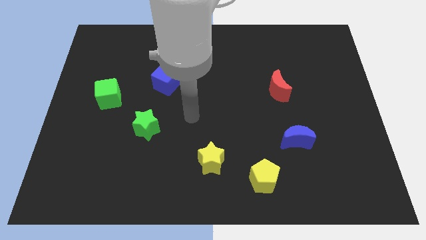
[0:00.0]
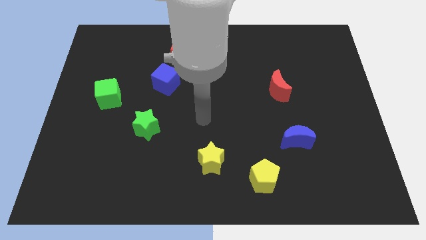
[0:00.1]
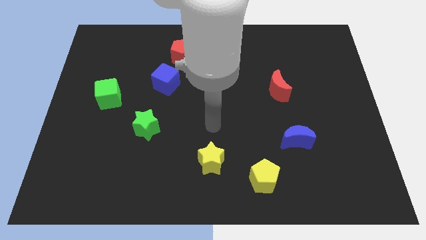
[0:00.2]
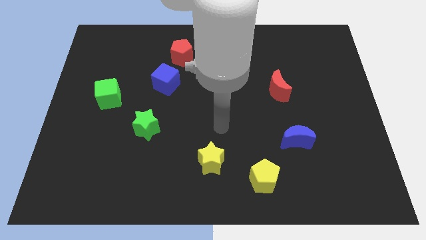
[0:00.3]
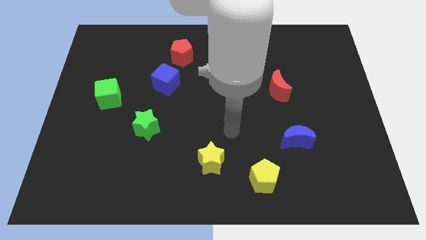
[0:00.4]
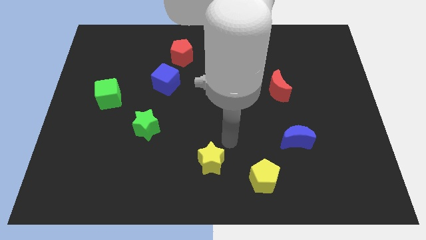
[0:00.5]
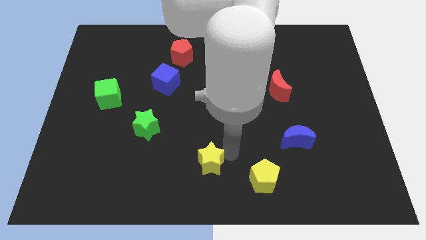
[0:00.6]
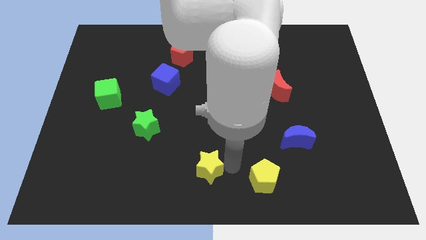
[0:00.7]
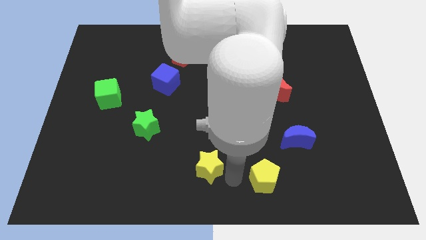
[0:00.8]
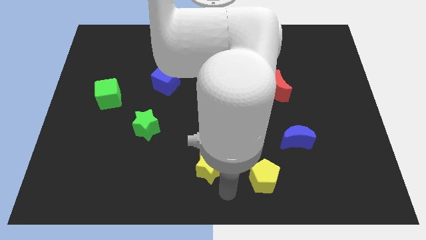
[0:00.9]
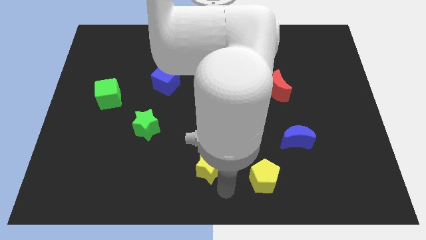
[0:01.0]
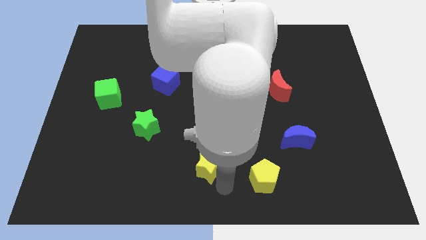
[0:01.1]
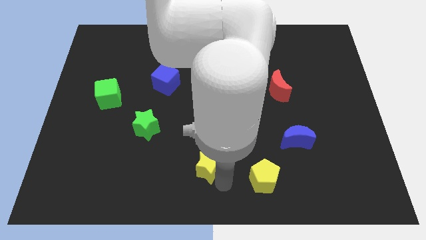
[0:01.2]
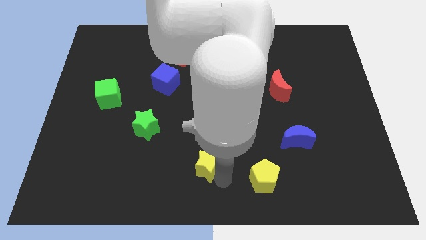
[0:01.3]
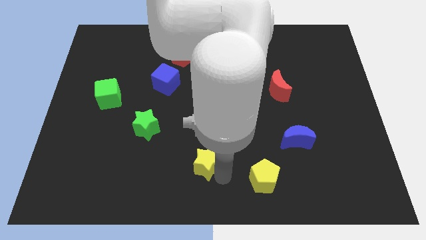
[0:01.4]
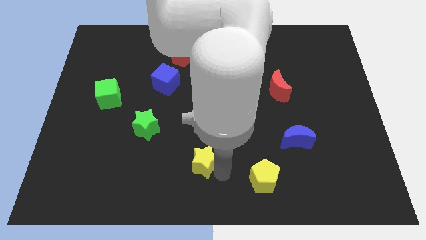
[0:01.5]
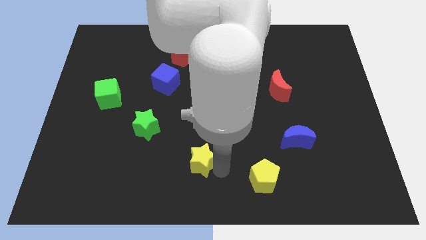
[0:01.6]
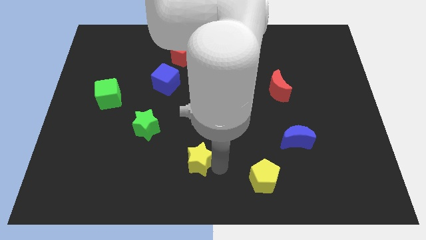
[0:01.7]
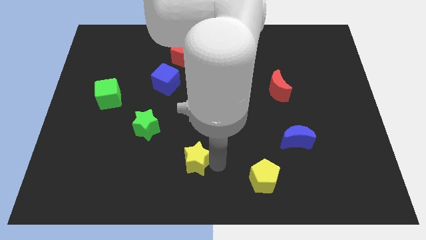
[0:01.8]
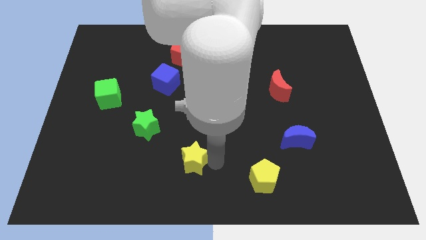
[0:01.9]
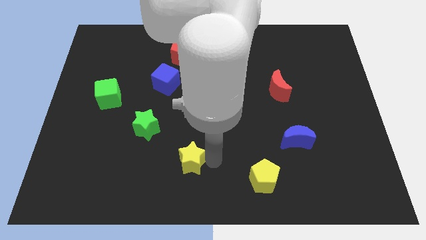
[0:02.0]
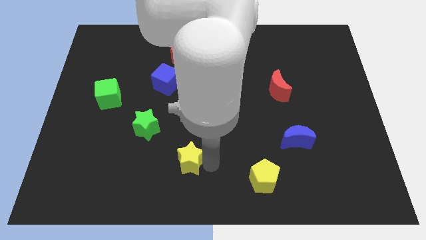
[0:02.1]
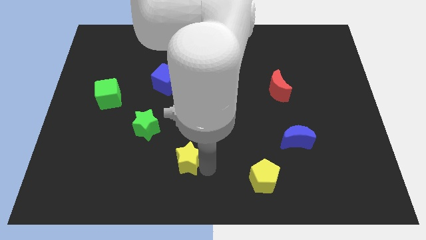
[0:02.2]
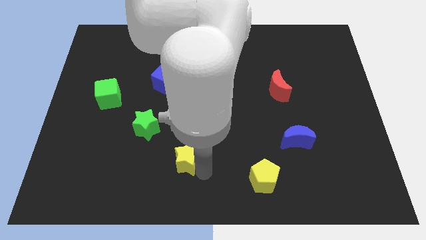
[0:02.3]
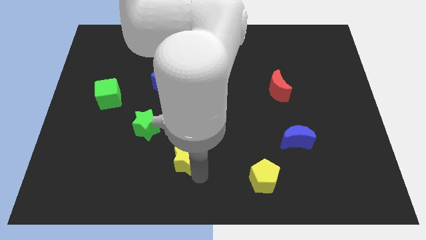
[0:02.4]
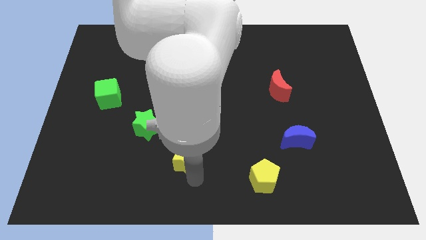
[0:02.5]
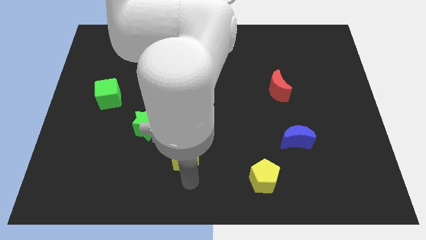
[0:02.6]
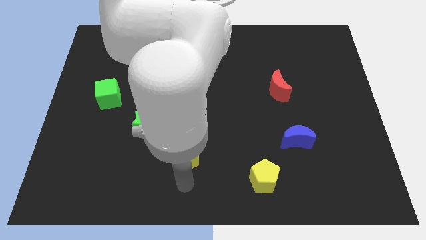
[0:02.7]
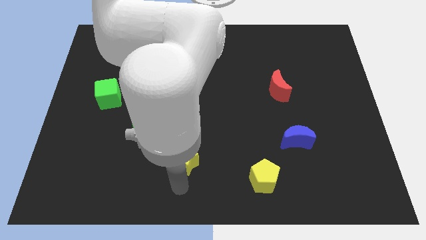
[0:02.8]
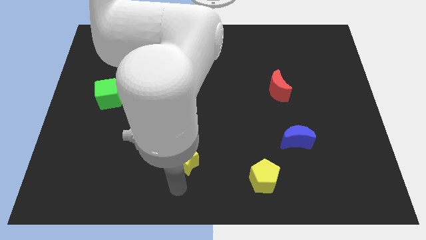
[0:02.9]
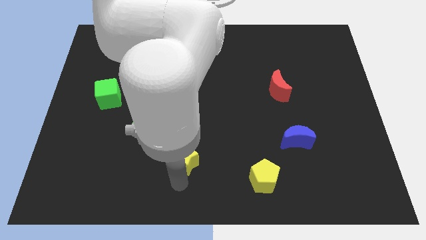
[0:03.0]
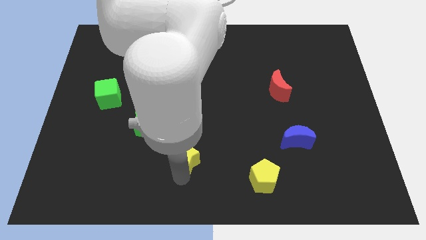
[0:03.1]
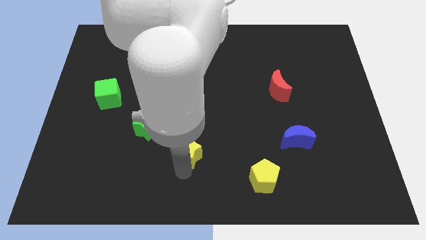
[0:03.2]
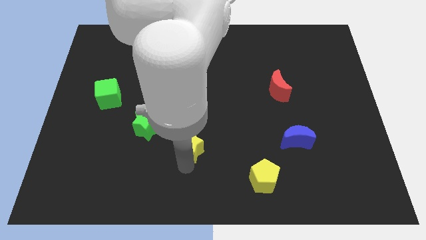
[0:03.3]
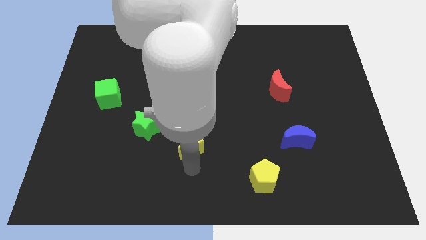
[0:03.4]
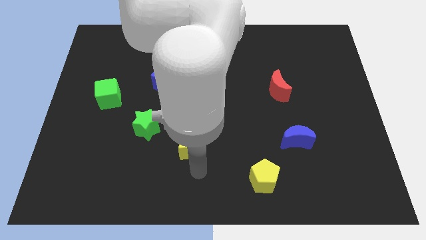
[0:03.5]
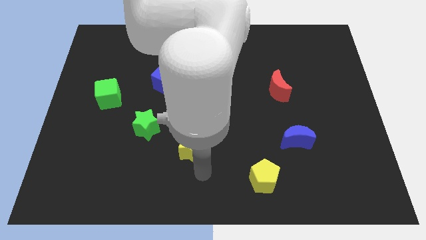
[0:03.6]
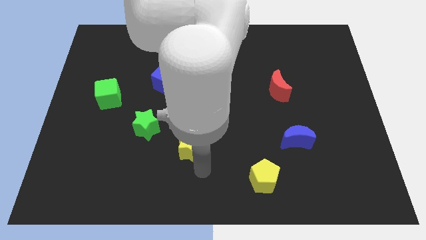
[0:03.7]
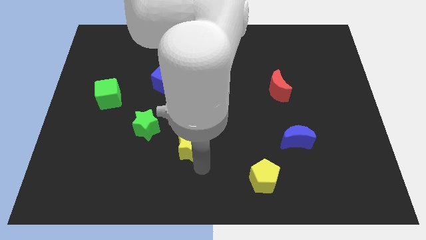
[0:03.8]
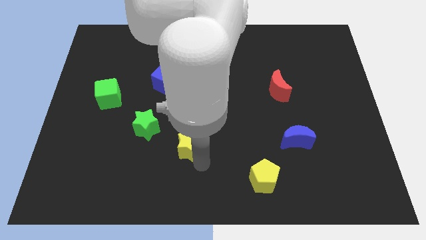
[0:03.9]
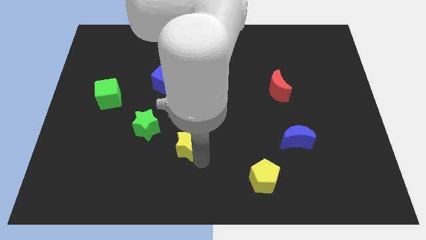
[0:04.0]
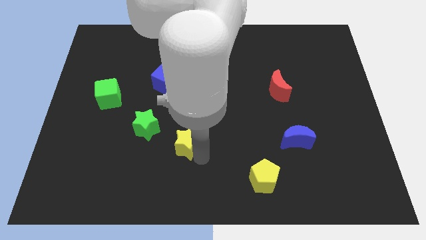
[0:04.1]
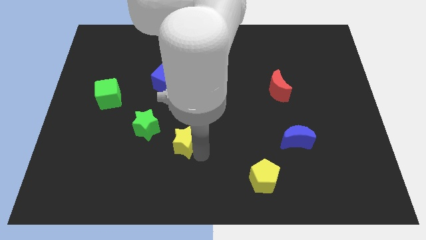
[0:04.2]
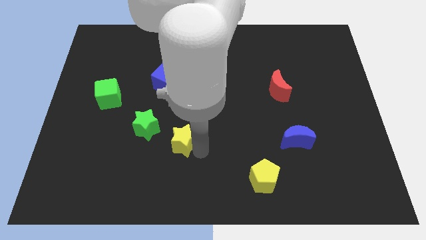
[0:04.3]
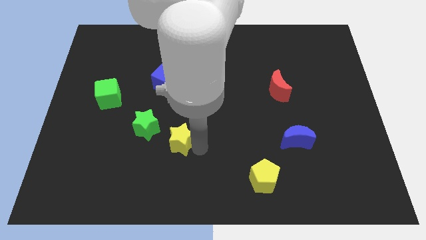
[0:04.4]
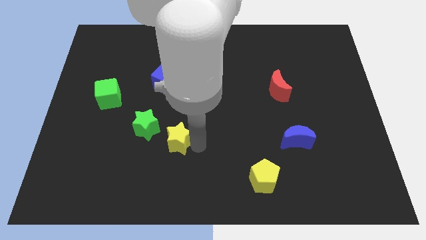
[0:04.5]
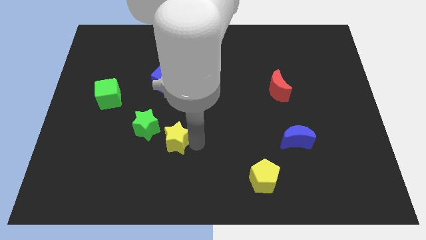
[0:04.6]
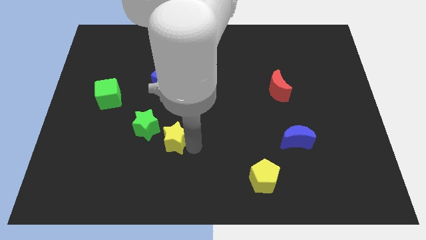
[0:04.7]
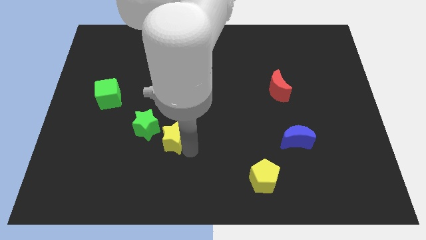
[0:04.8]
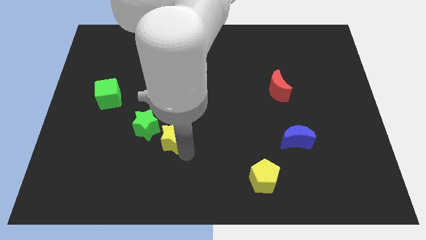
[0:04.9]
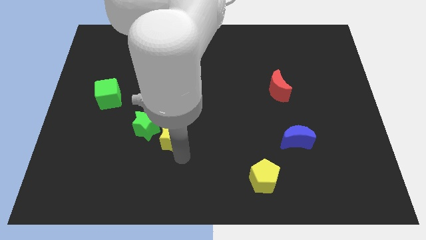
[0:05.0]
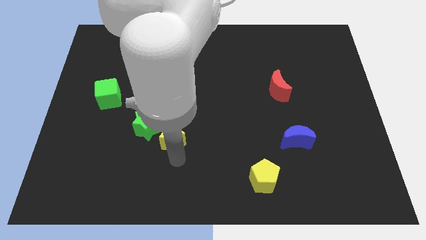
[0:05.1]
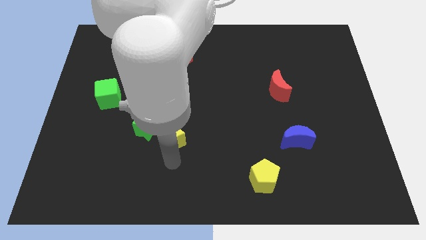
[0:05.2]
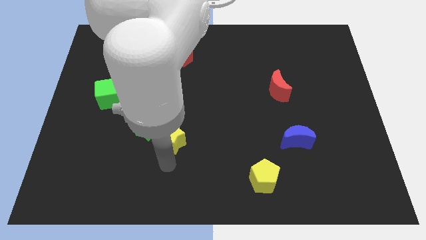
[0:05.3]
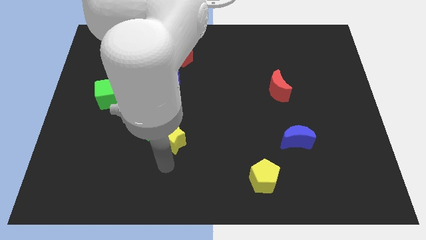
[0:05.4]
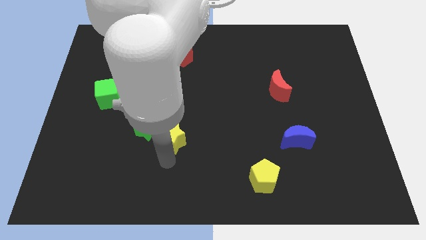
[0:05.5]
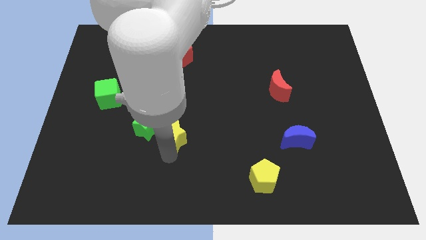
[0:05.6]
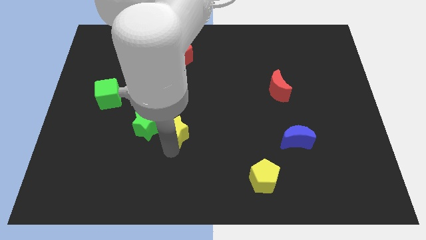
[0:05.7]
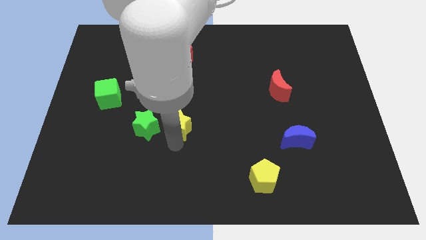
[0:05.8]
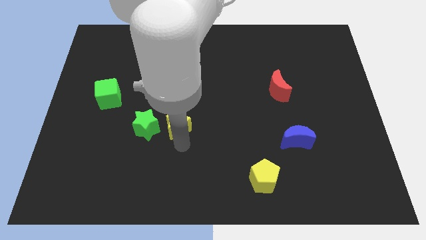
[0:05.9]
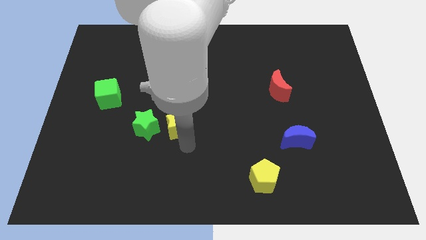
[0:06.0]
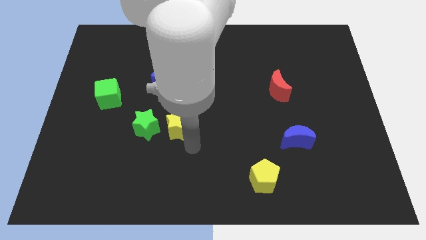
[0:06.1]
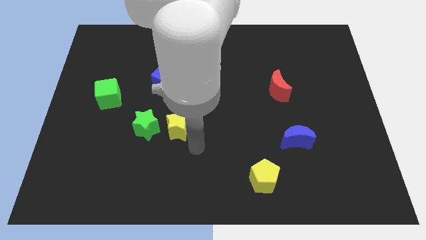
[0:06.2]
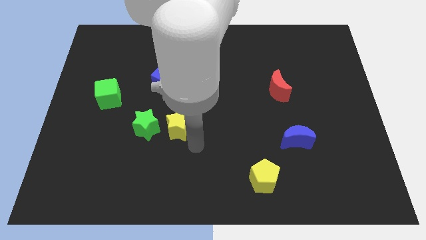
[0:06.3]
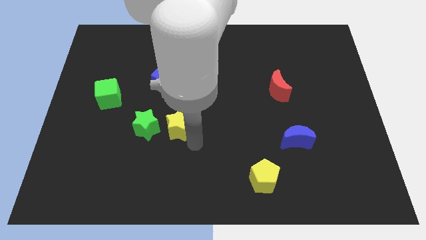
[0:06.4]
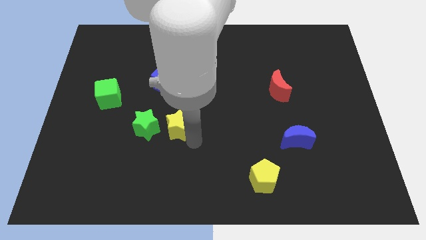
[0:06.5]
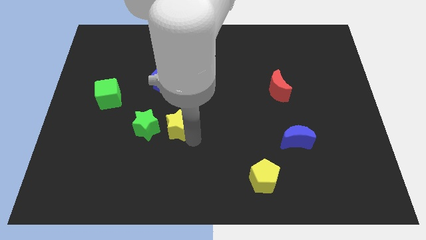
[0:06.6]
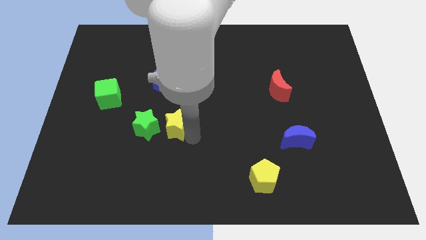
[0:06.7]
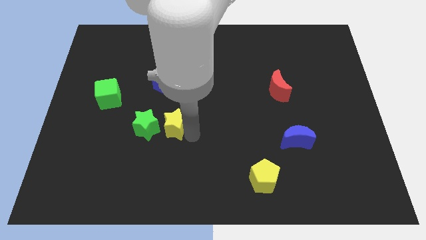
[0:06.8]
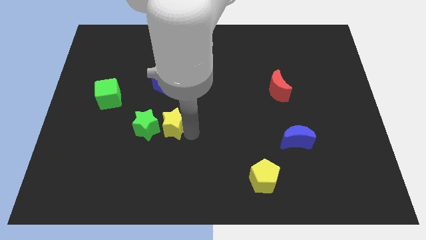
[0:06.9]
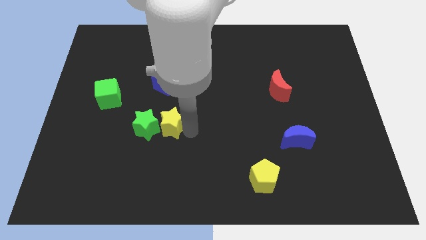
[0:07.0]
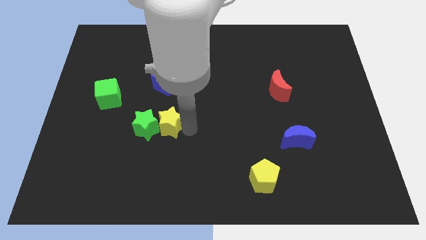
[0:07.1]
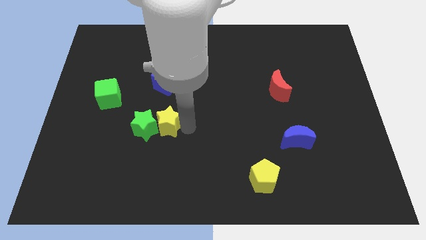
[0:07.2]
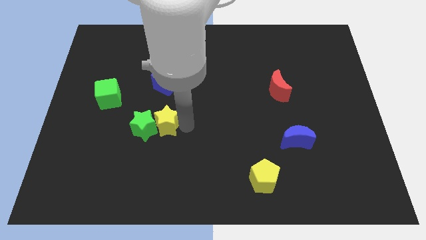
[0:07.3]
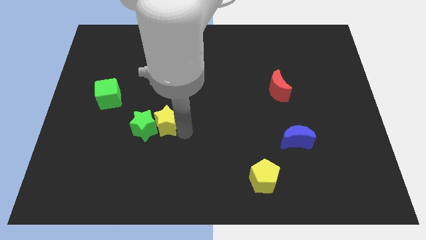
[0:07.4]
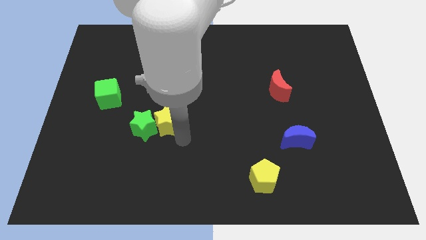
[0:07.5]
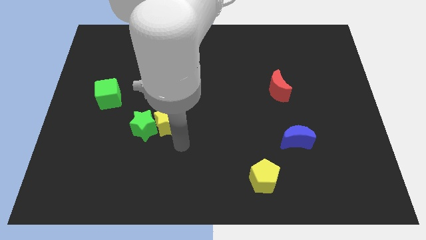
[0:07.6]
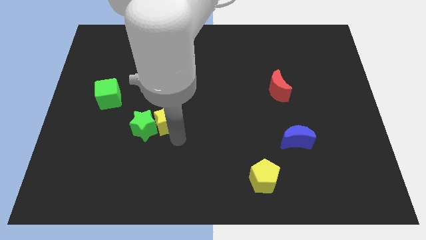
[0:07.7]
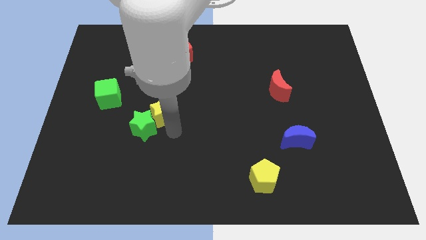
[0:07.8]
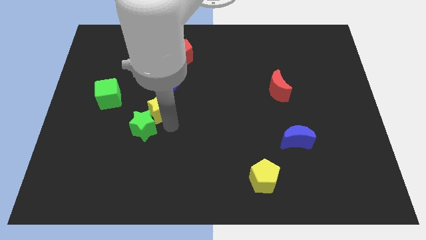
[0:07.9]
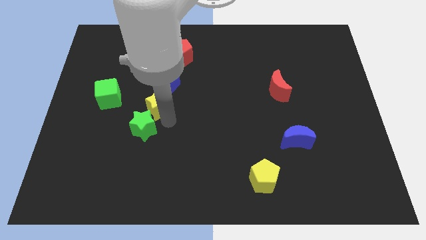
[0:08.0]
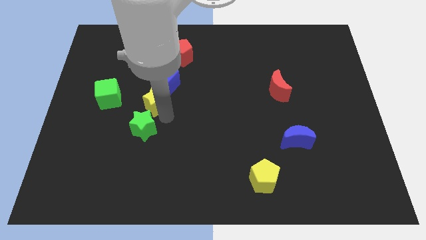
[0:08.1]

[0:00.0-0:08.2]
move the yellow star up and to the left
